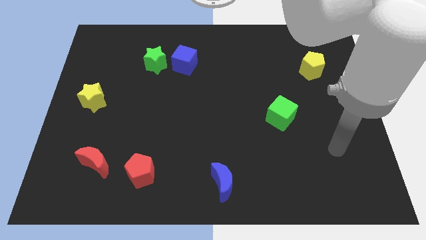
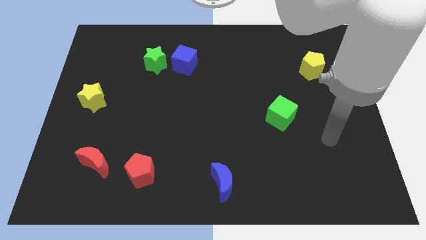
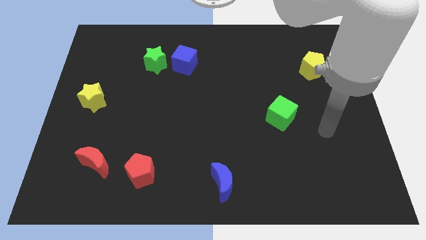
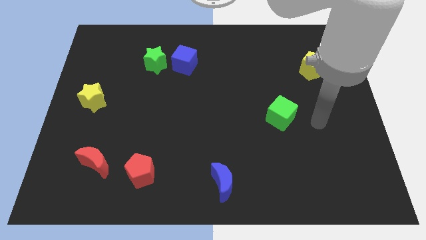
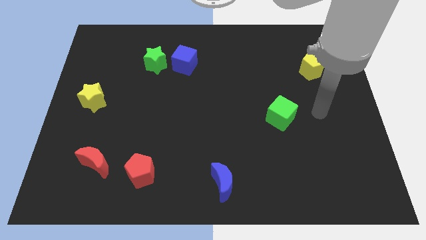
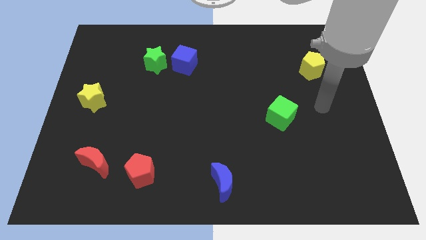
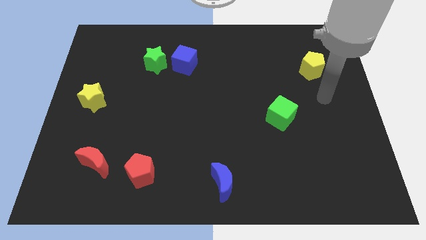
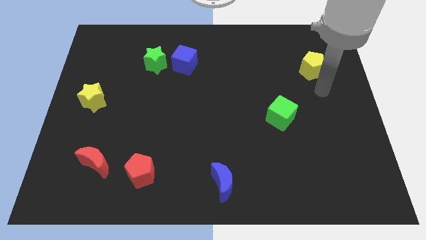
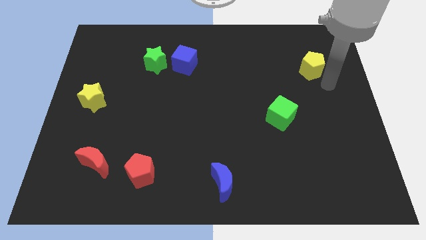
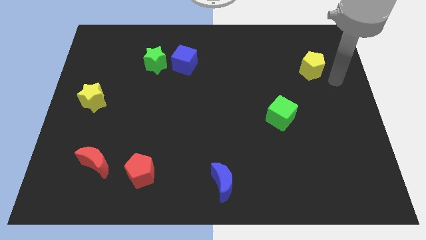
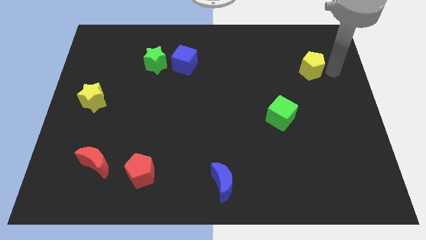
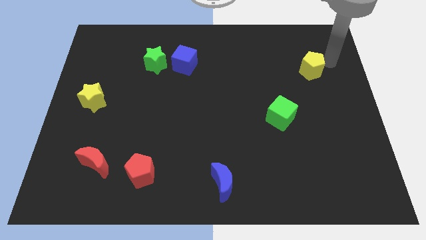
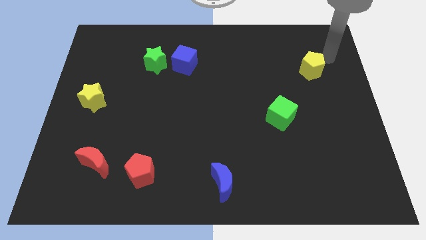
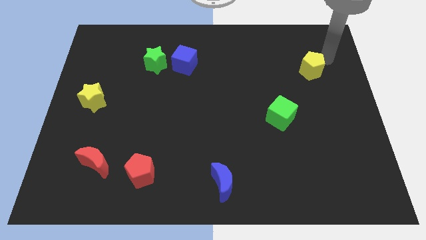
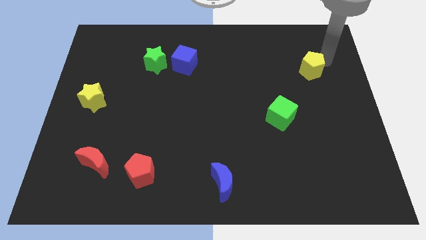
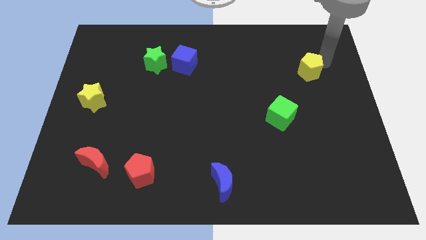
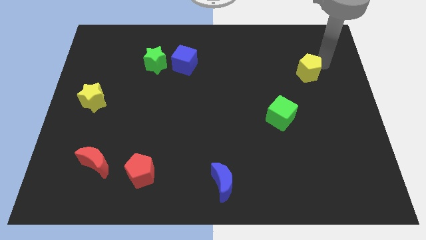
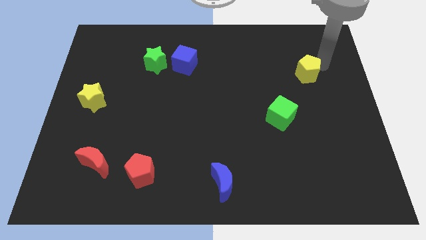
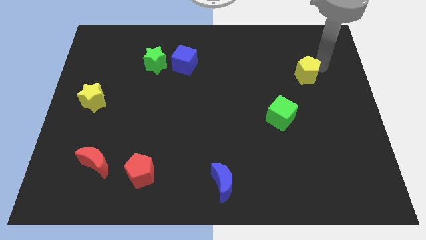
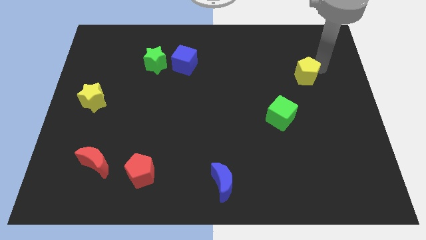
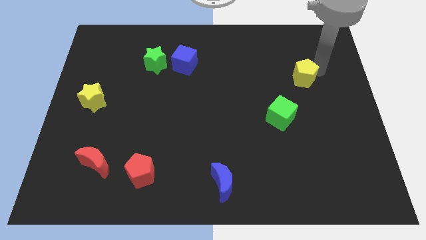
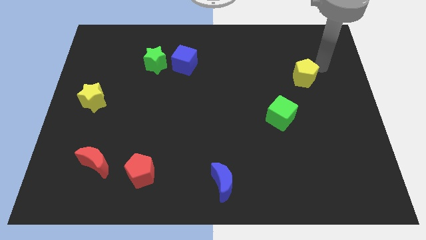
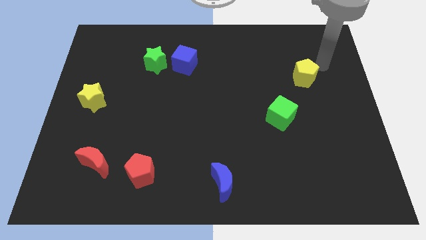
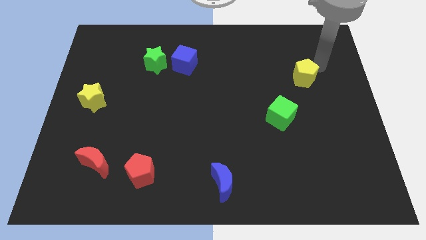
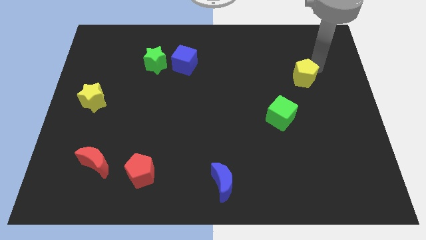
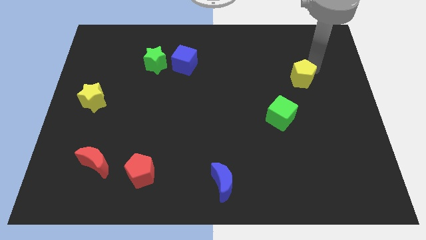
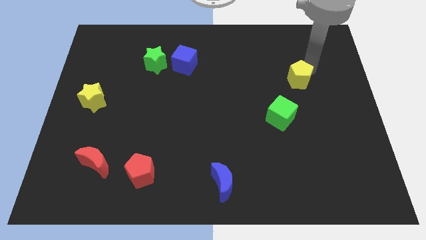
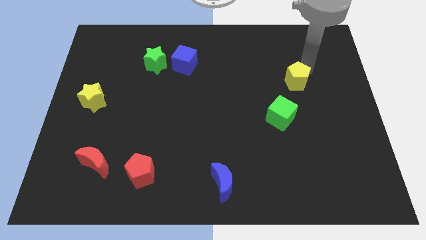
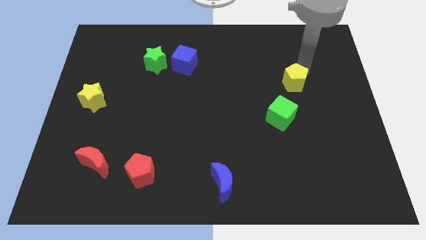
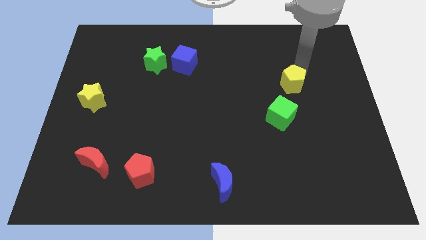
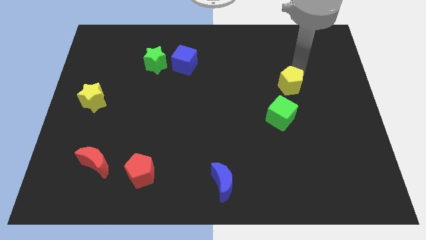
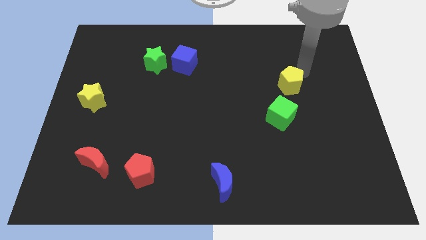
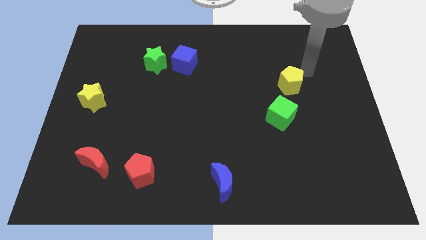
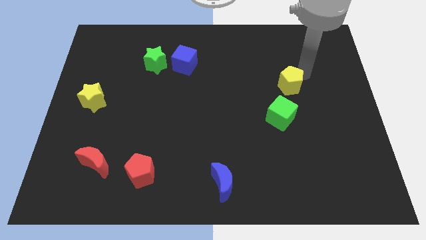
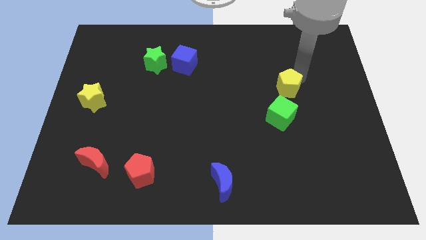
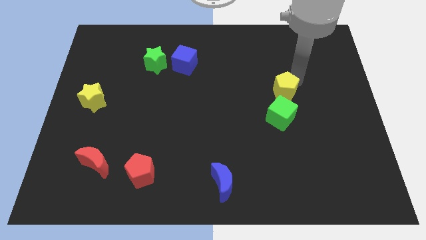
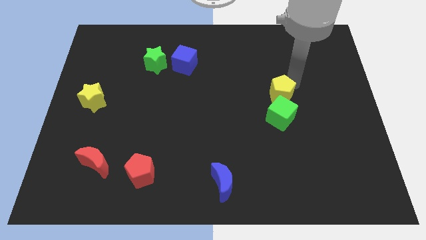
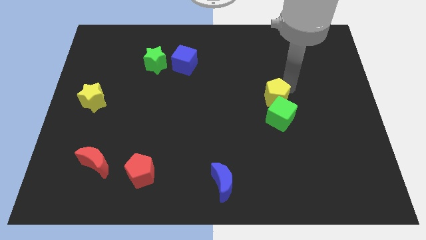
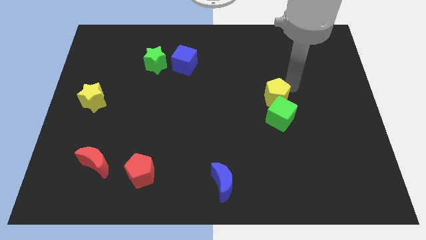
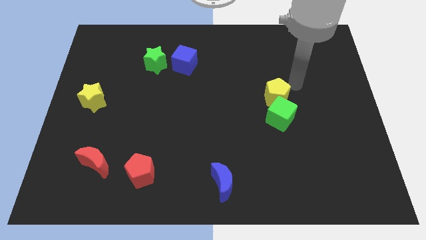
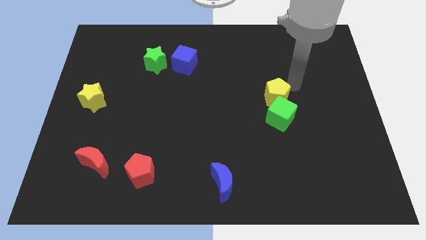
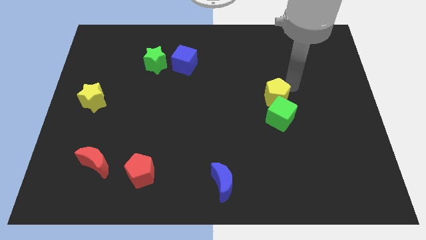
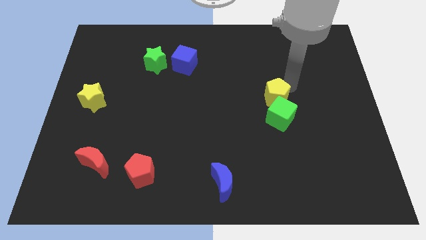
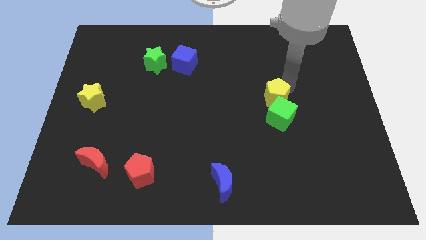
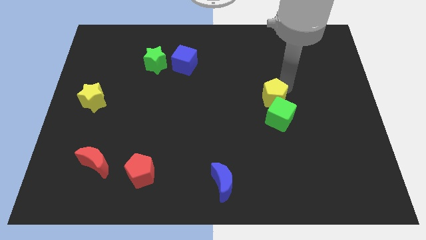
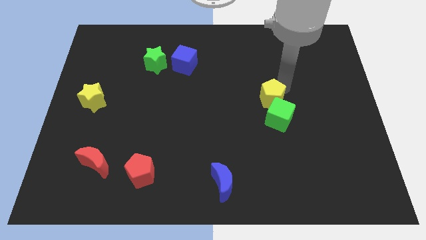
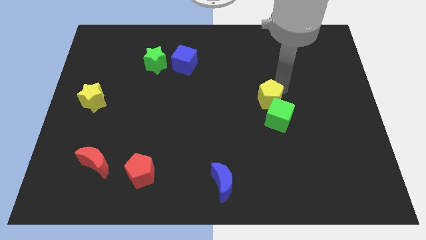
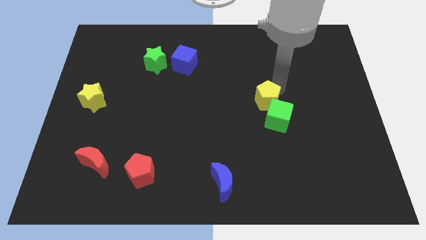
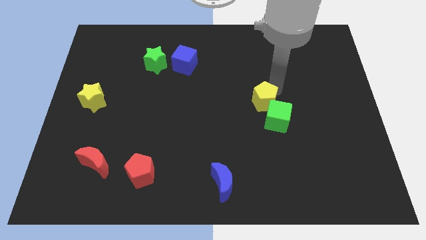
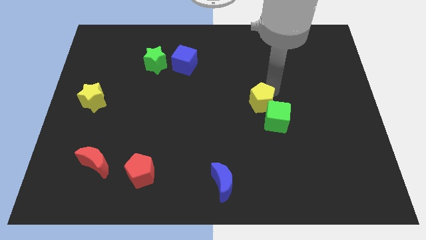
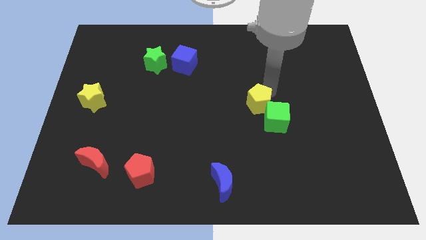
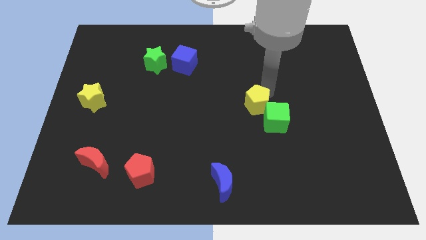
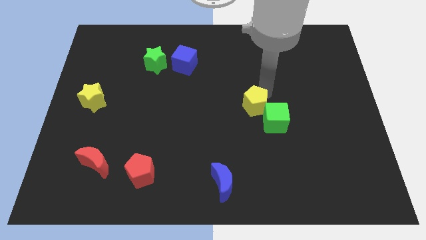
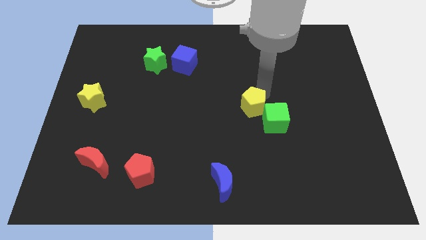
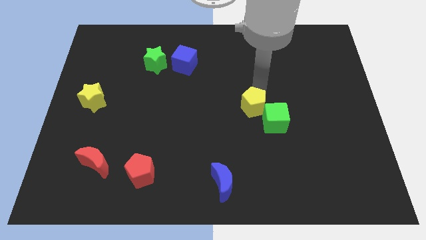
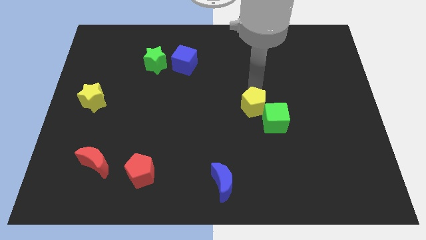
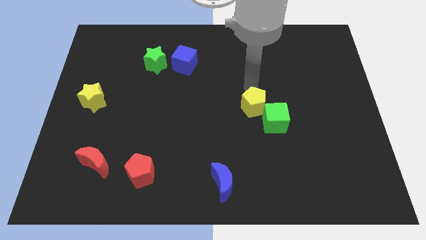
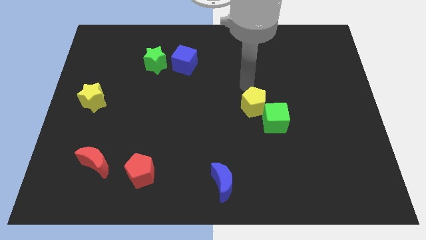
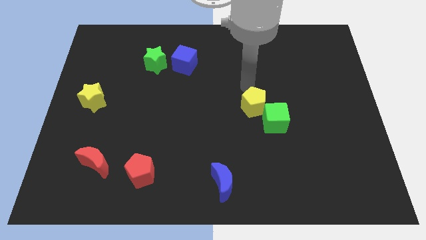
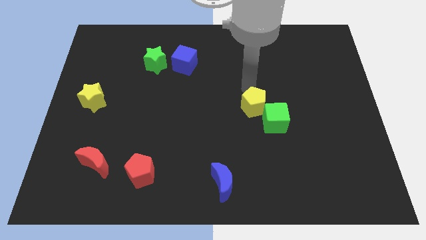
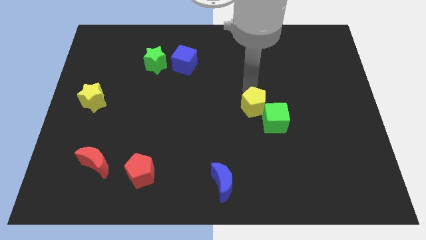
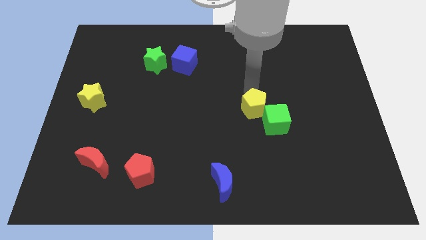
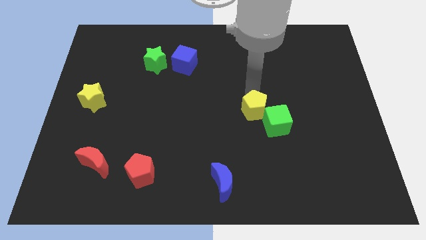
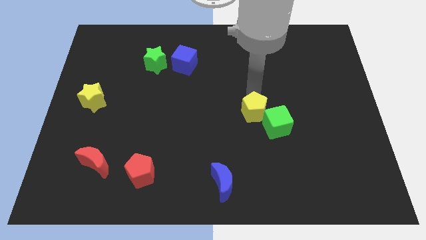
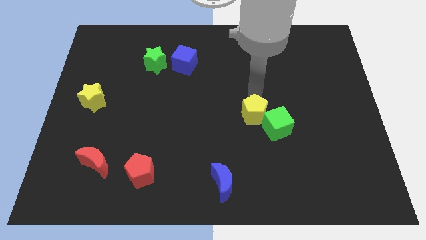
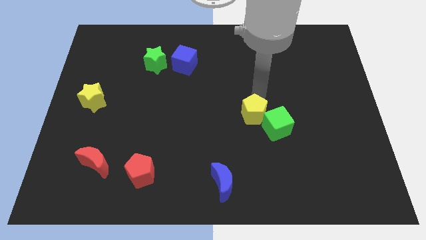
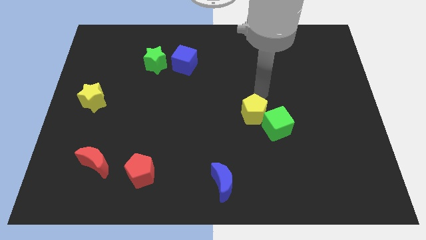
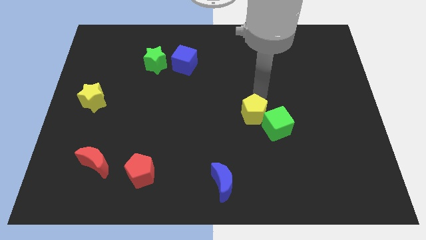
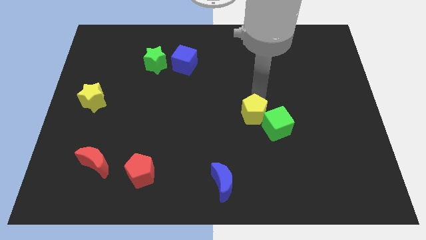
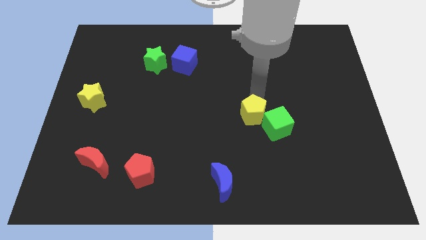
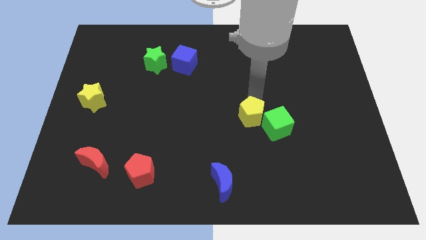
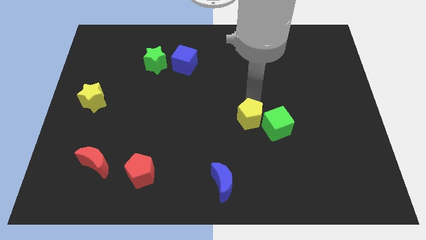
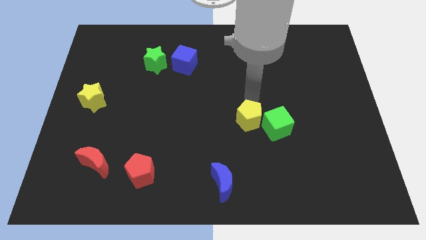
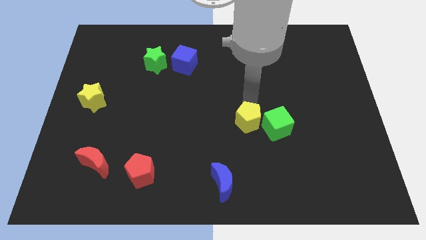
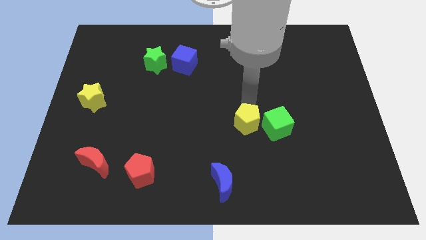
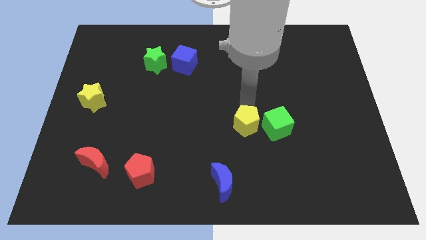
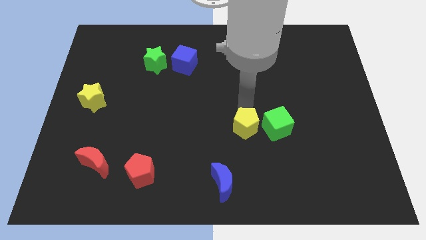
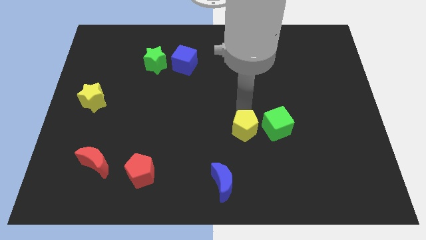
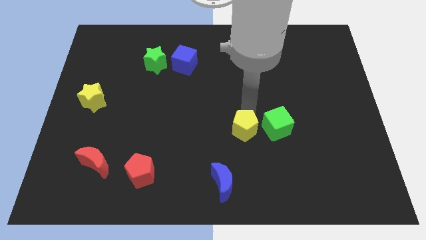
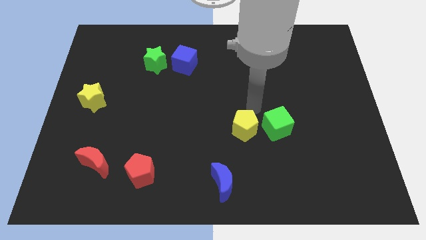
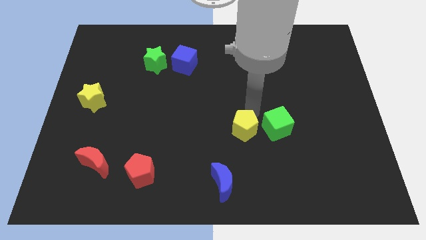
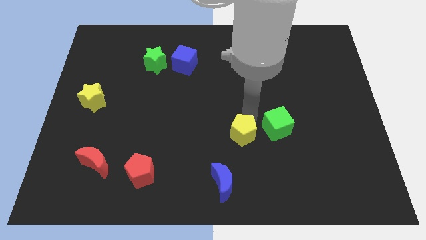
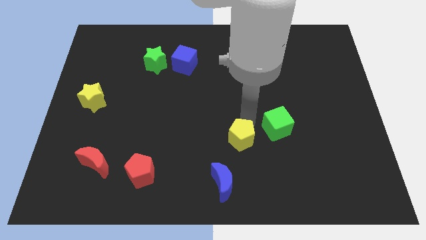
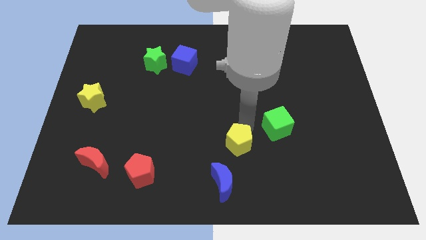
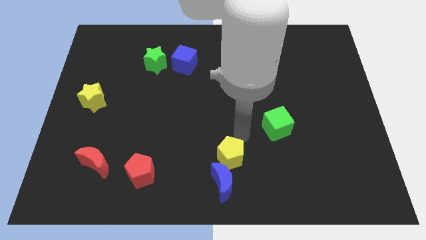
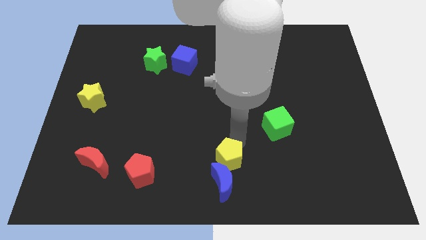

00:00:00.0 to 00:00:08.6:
slide the yellow pentagon next to the blue moon
